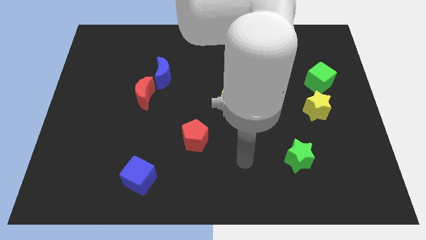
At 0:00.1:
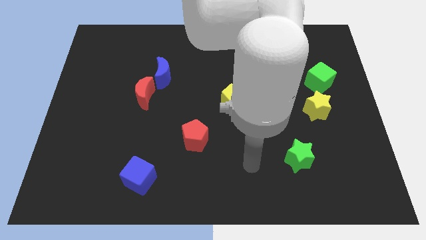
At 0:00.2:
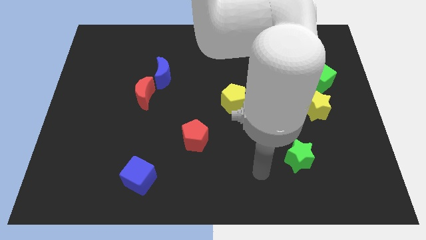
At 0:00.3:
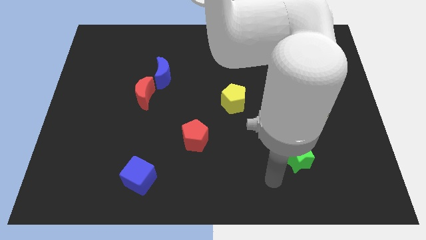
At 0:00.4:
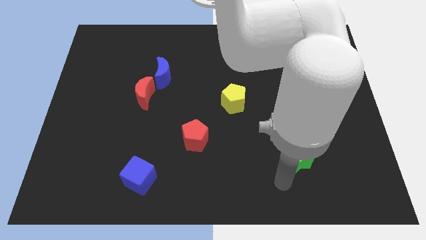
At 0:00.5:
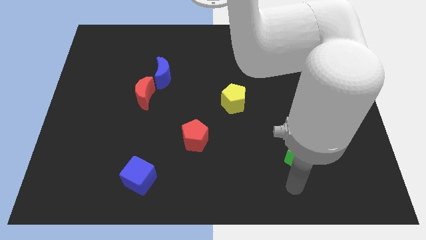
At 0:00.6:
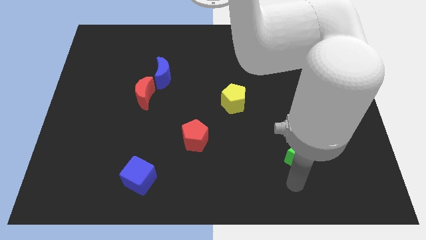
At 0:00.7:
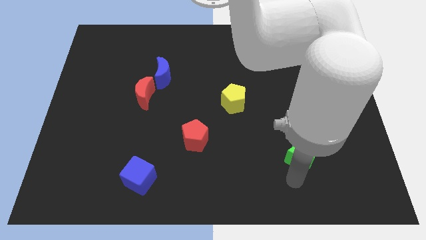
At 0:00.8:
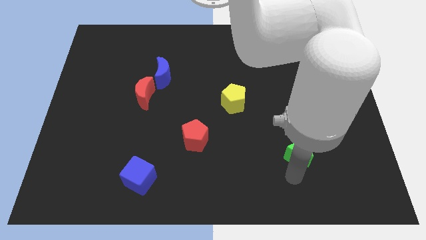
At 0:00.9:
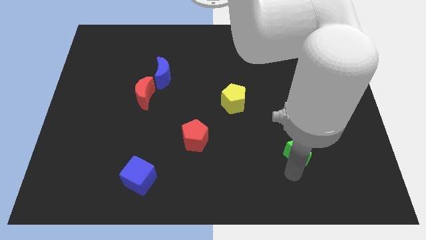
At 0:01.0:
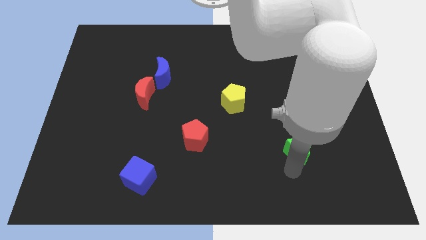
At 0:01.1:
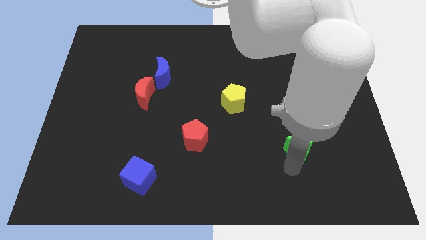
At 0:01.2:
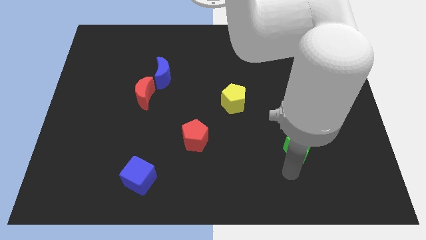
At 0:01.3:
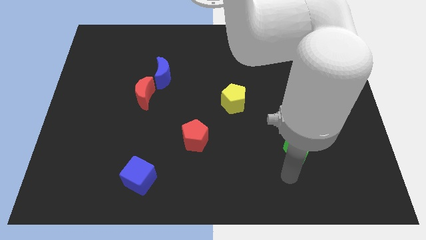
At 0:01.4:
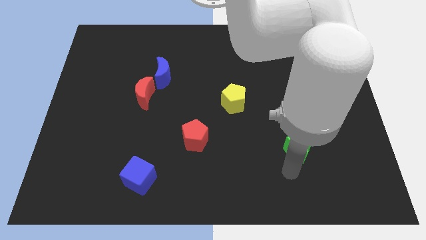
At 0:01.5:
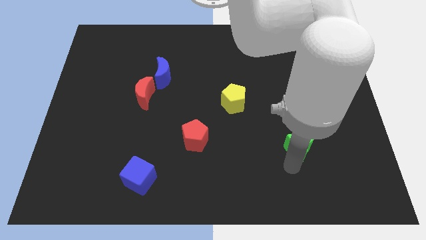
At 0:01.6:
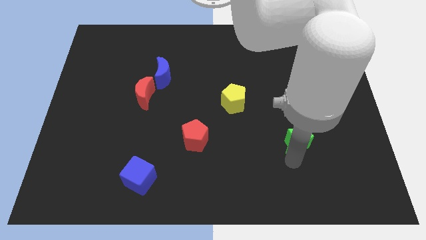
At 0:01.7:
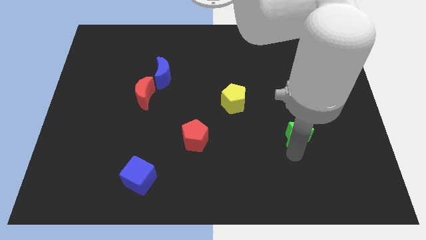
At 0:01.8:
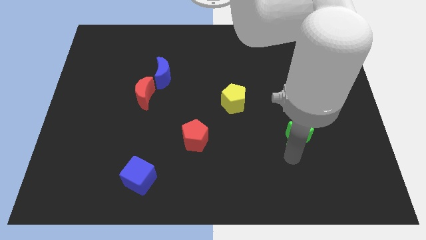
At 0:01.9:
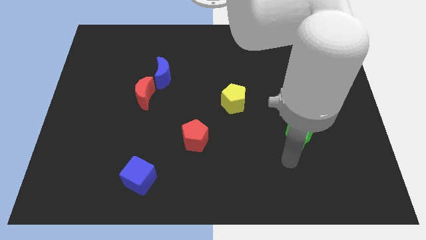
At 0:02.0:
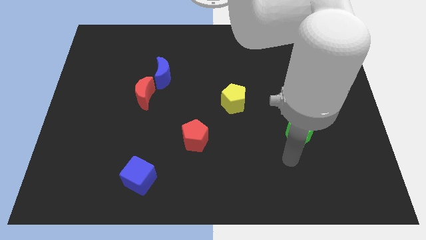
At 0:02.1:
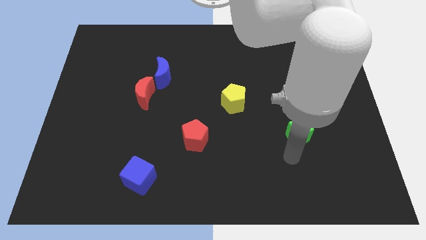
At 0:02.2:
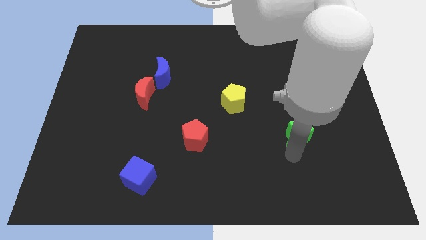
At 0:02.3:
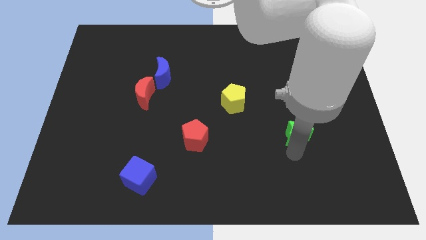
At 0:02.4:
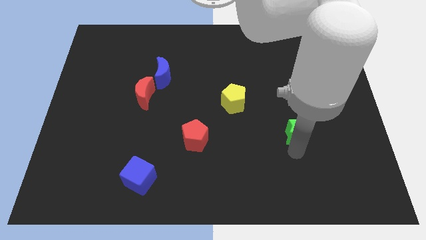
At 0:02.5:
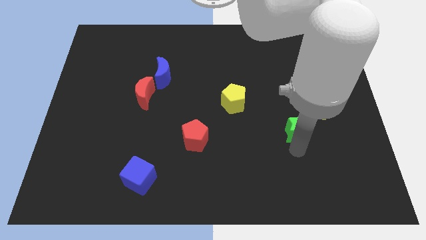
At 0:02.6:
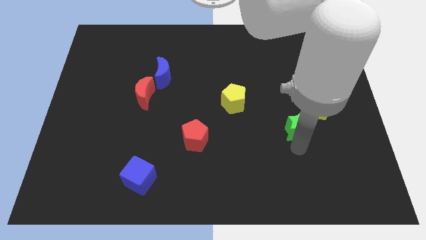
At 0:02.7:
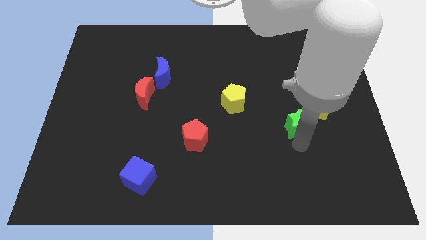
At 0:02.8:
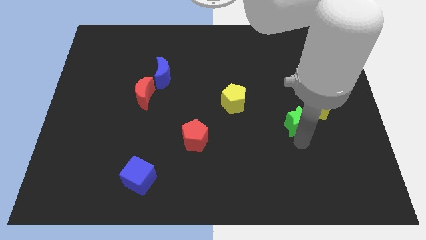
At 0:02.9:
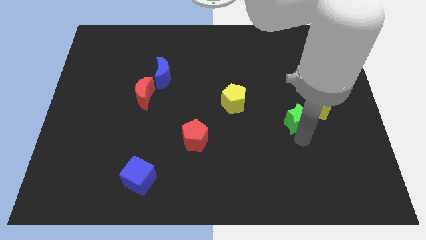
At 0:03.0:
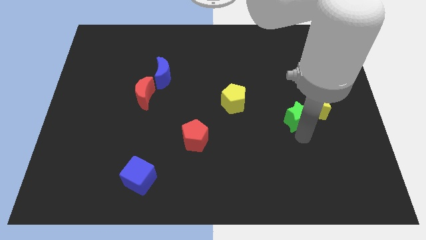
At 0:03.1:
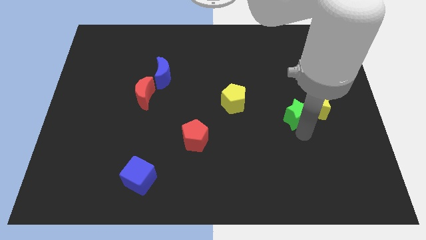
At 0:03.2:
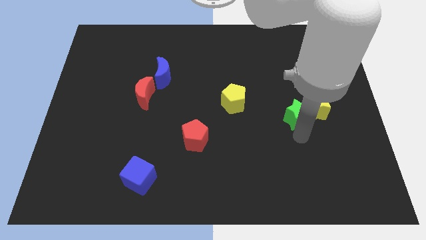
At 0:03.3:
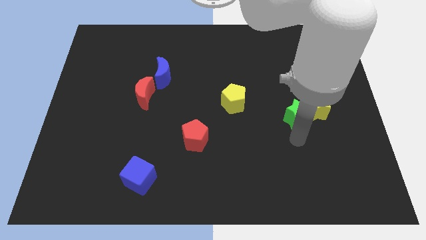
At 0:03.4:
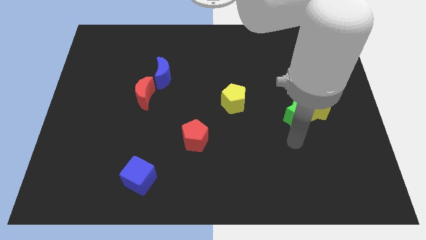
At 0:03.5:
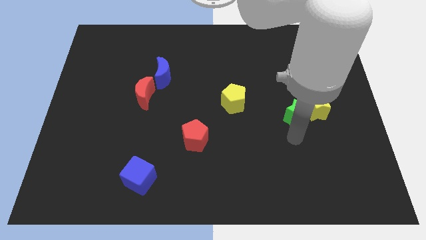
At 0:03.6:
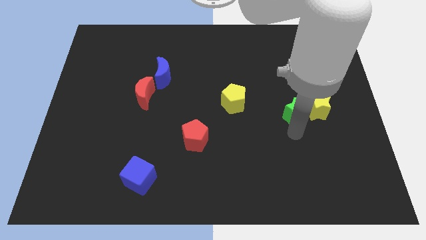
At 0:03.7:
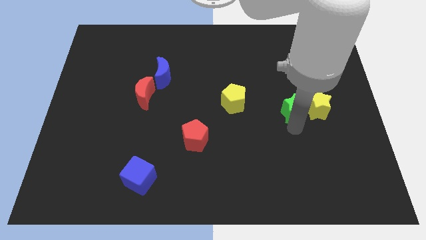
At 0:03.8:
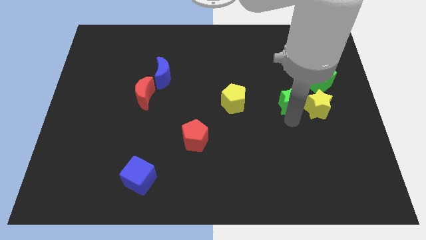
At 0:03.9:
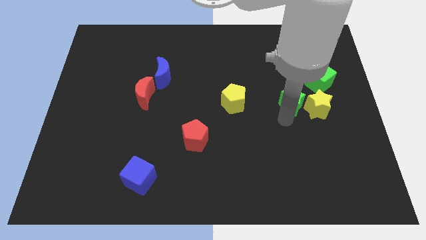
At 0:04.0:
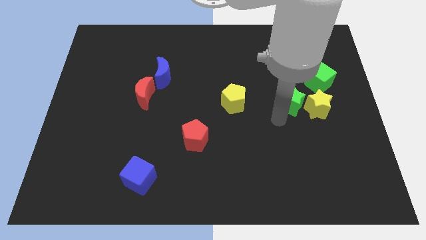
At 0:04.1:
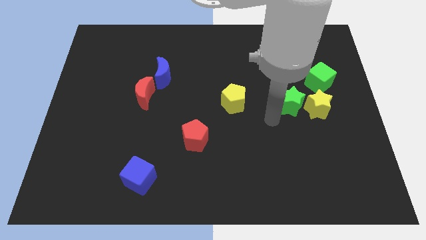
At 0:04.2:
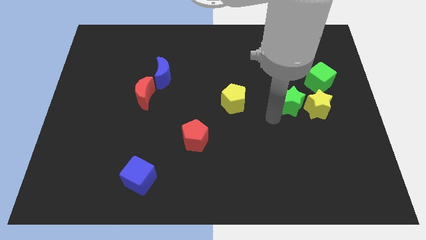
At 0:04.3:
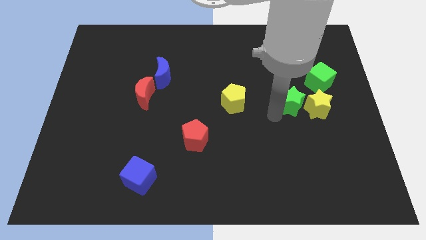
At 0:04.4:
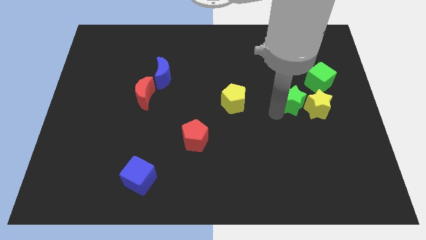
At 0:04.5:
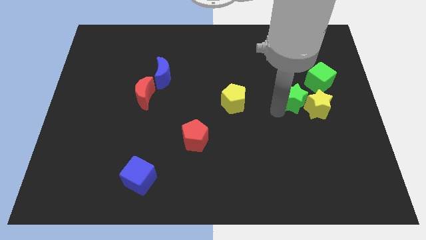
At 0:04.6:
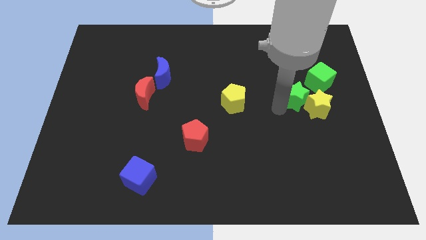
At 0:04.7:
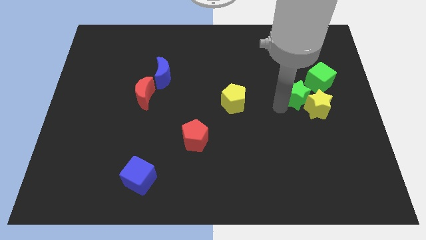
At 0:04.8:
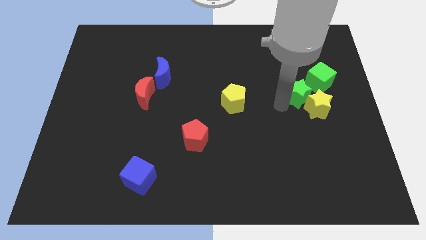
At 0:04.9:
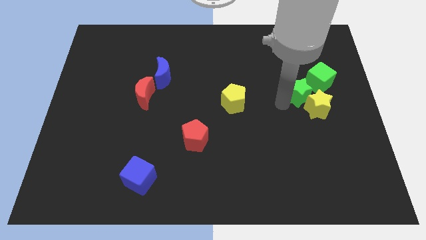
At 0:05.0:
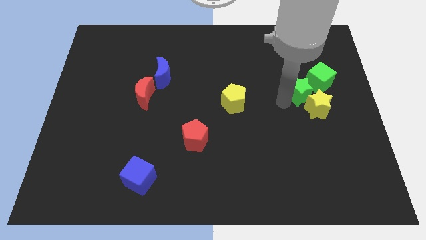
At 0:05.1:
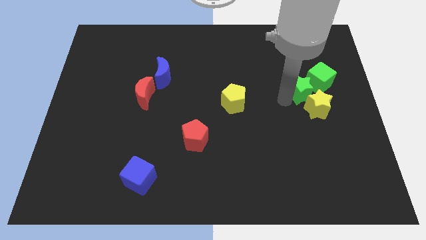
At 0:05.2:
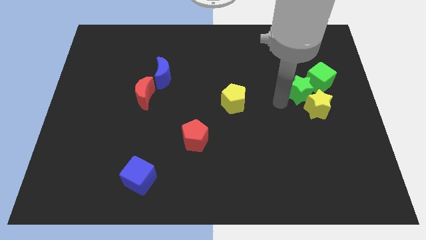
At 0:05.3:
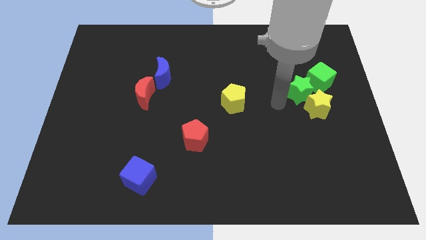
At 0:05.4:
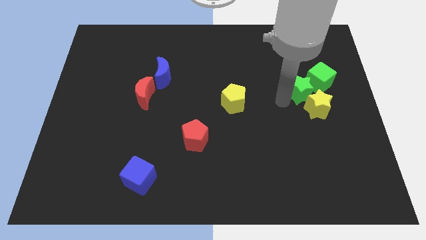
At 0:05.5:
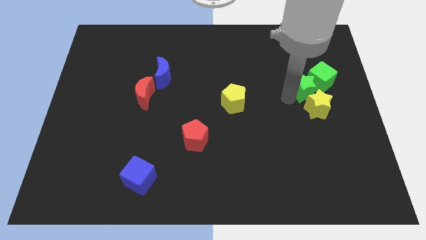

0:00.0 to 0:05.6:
put the green star next to the green cube

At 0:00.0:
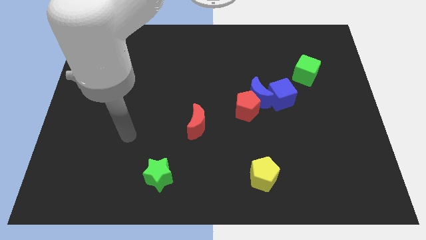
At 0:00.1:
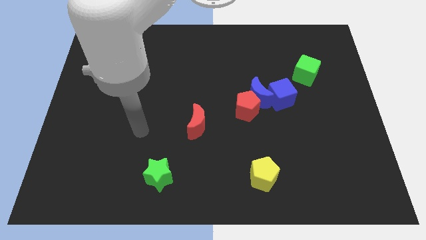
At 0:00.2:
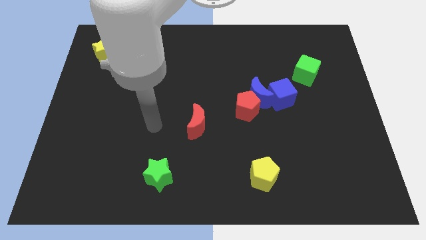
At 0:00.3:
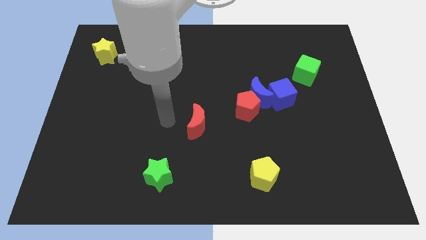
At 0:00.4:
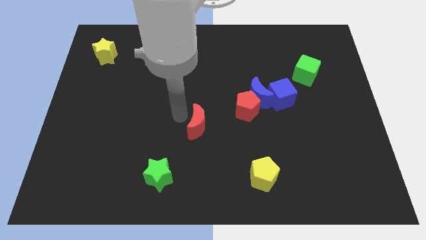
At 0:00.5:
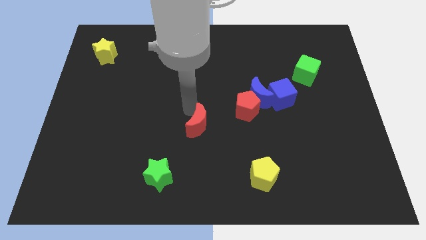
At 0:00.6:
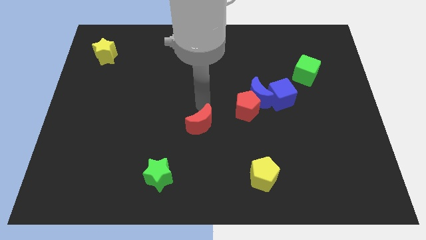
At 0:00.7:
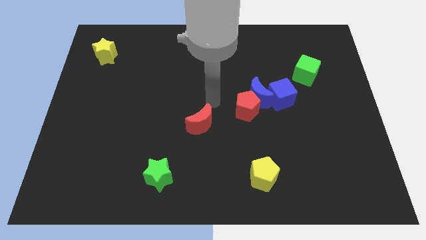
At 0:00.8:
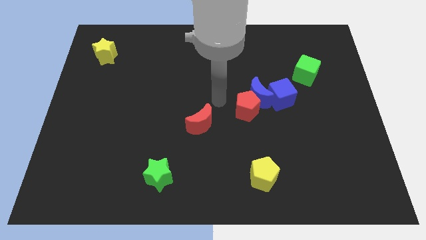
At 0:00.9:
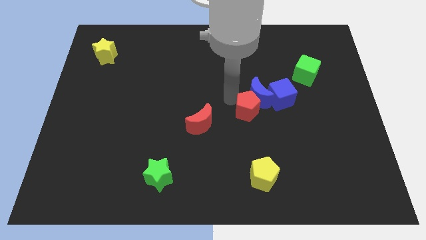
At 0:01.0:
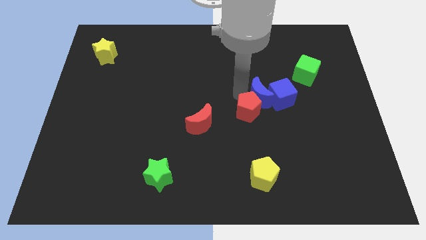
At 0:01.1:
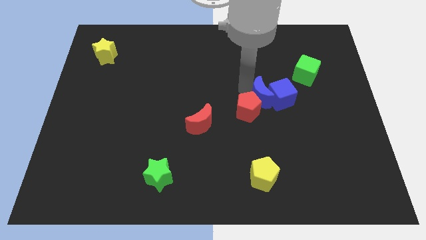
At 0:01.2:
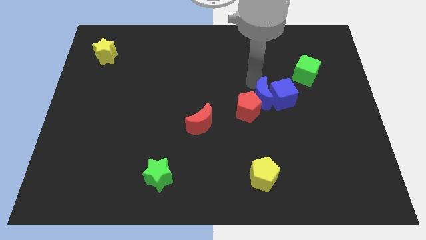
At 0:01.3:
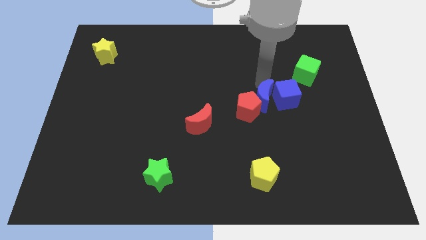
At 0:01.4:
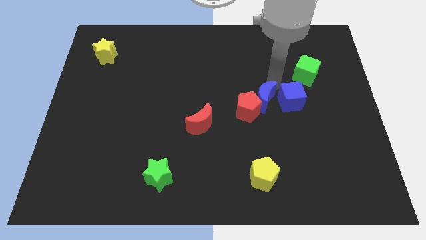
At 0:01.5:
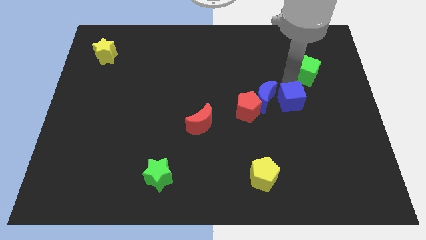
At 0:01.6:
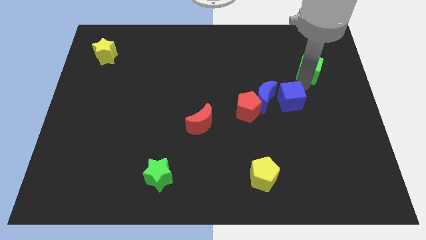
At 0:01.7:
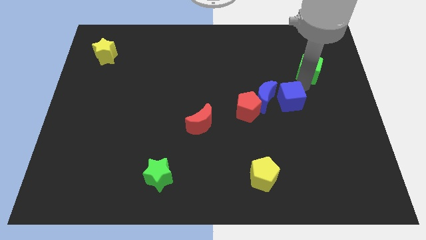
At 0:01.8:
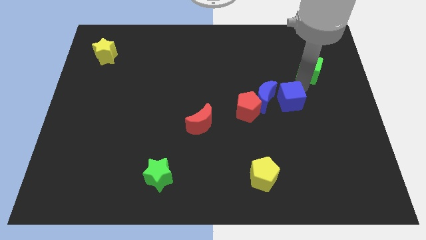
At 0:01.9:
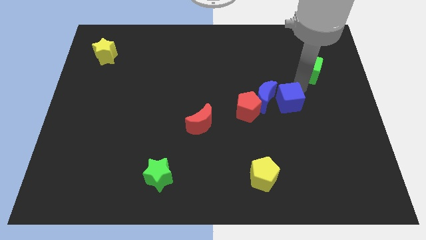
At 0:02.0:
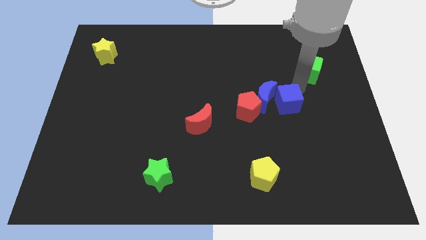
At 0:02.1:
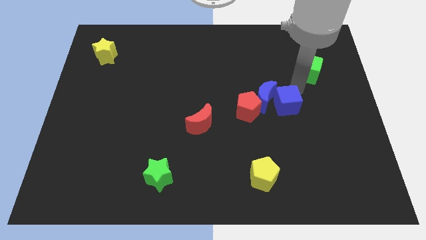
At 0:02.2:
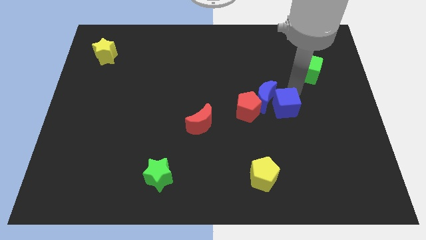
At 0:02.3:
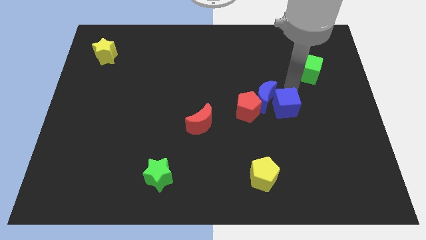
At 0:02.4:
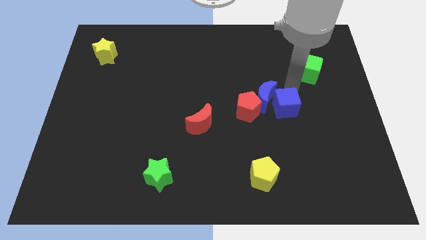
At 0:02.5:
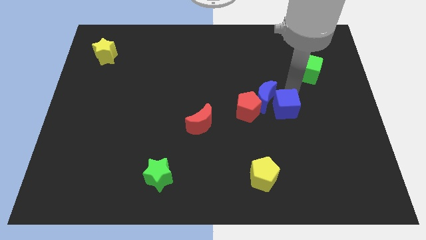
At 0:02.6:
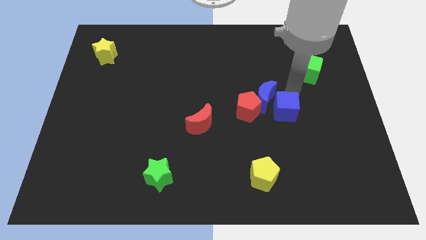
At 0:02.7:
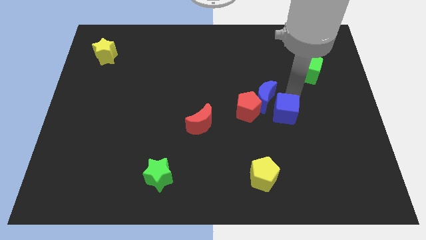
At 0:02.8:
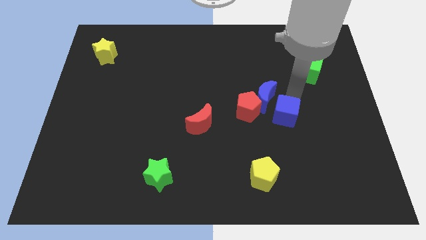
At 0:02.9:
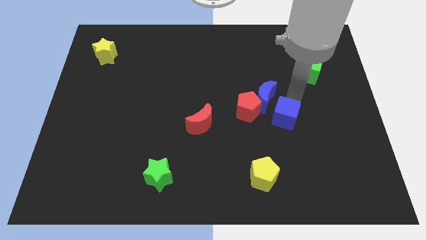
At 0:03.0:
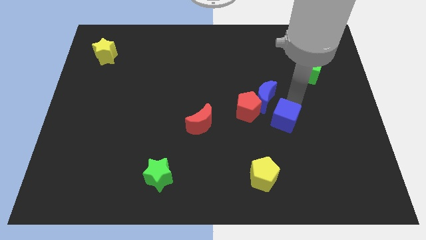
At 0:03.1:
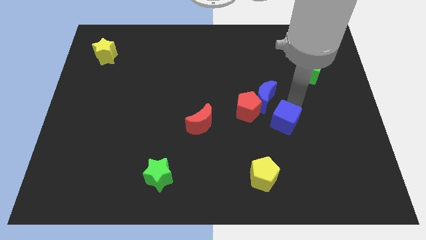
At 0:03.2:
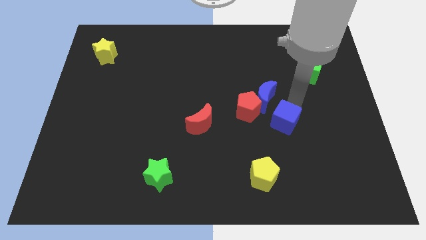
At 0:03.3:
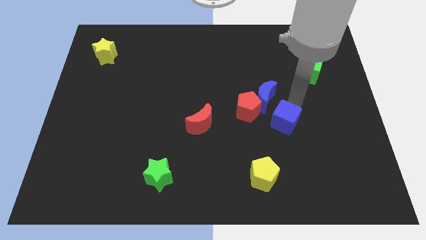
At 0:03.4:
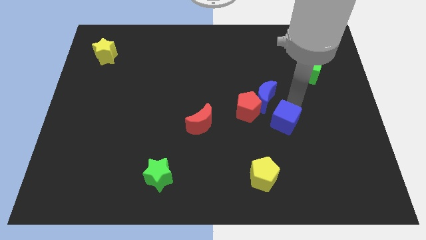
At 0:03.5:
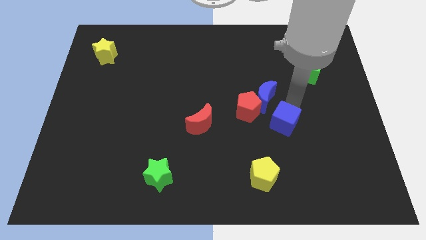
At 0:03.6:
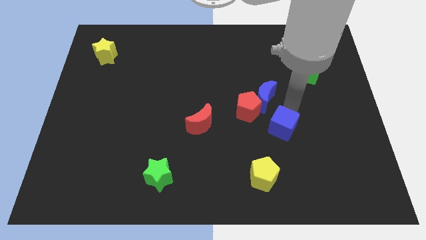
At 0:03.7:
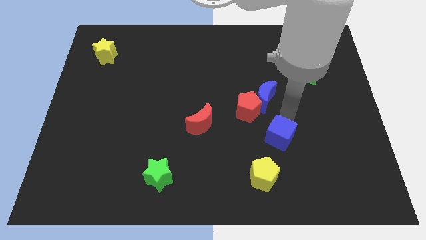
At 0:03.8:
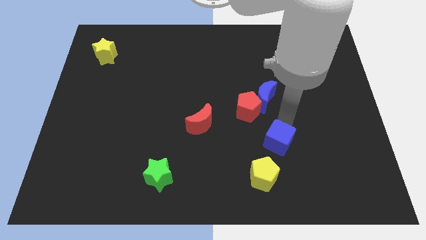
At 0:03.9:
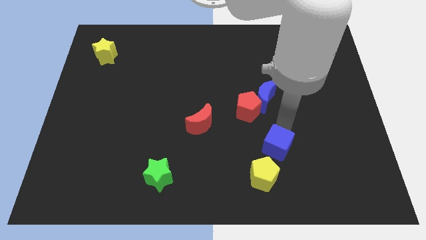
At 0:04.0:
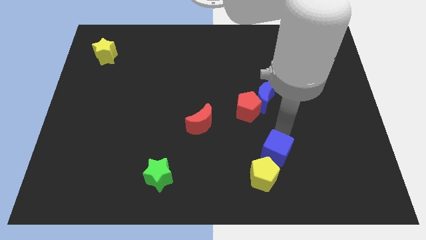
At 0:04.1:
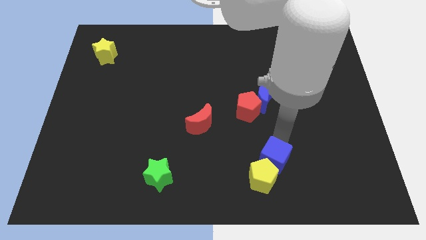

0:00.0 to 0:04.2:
slide the blue cube next to the yellow pentagon
